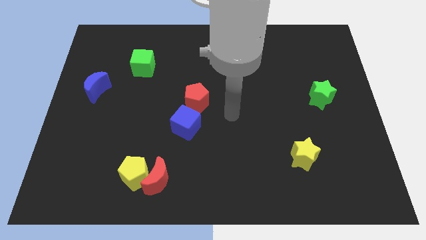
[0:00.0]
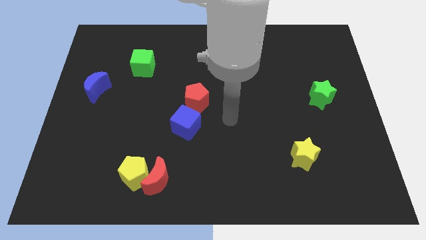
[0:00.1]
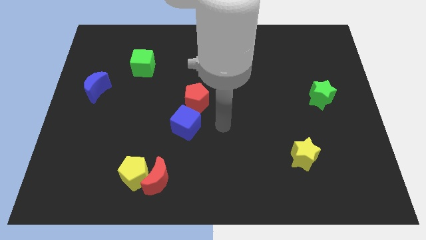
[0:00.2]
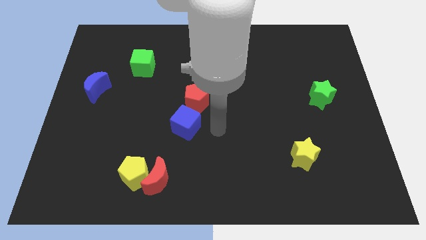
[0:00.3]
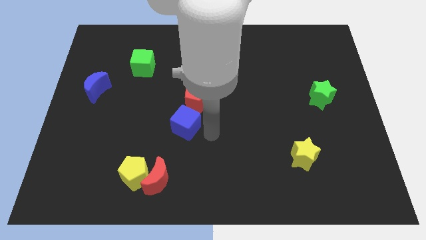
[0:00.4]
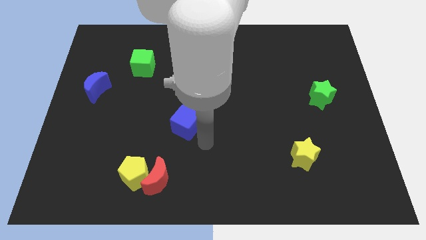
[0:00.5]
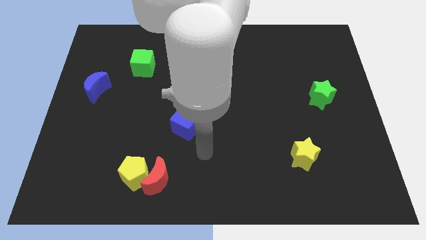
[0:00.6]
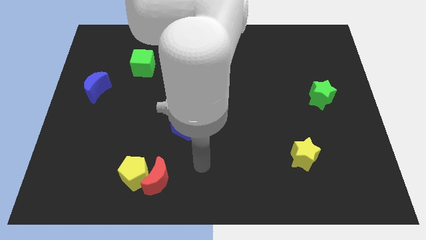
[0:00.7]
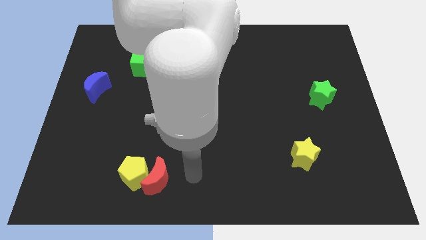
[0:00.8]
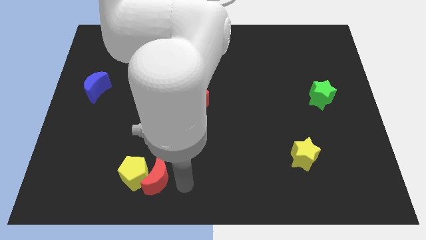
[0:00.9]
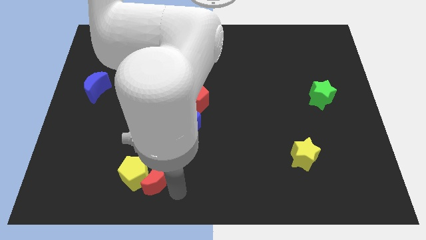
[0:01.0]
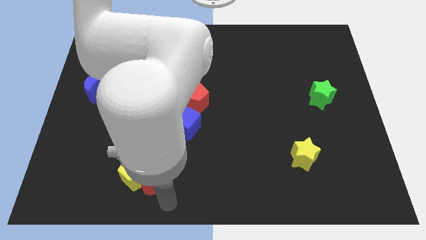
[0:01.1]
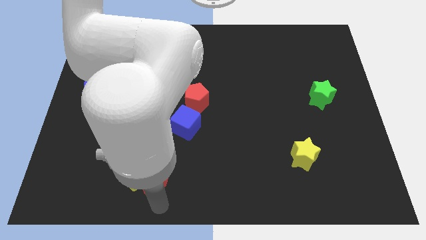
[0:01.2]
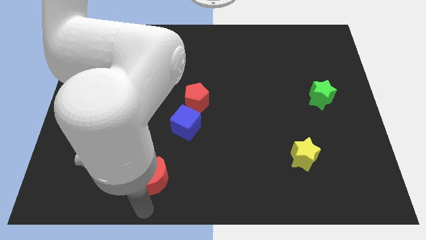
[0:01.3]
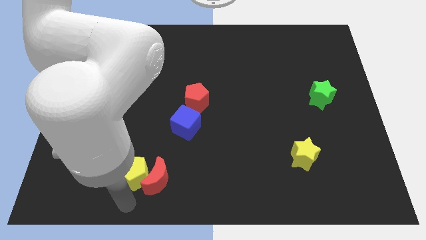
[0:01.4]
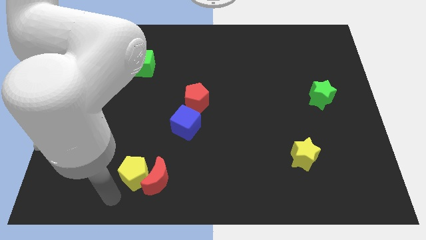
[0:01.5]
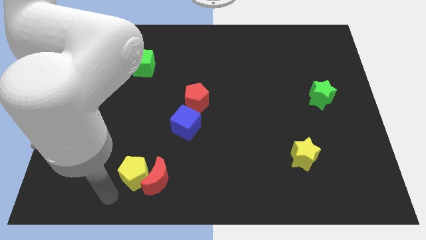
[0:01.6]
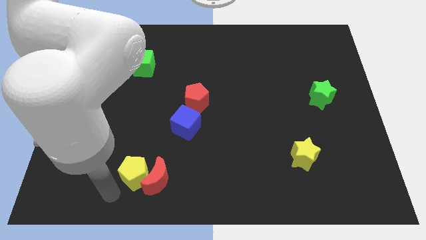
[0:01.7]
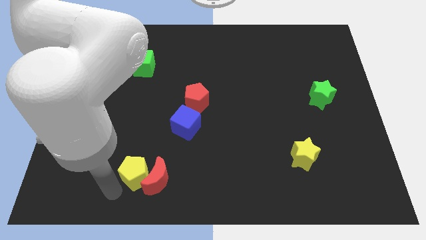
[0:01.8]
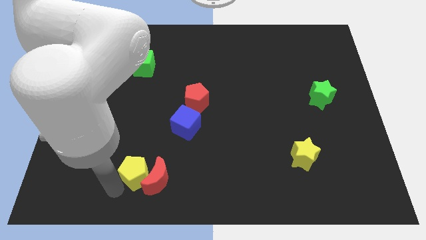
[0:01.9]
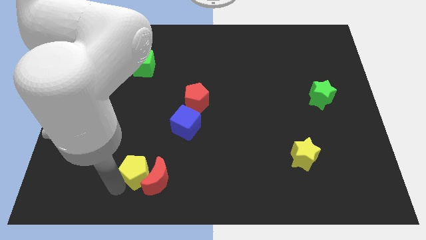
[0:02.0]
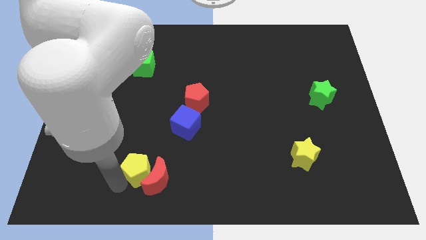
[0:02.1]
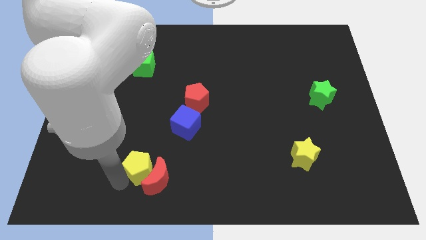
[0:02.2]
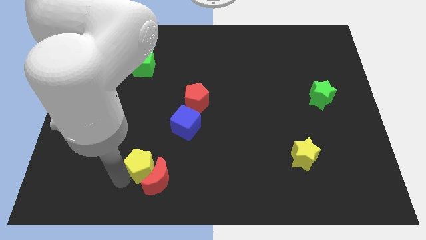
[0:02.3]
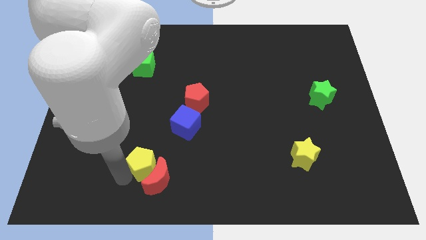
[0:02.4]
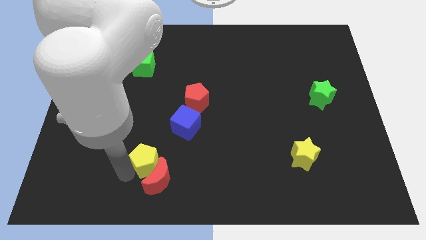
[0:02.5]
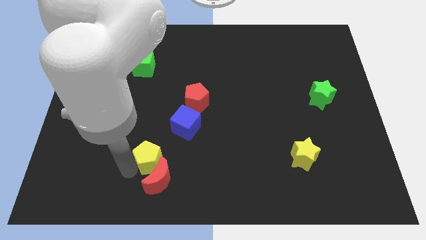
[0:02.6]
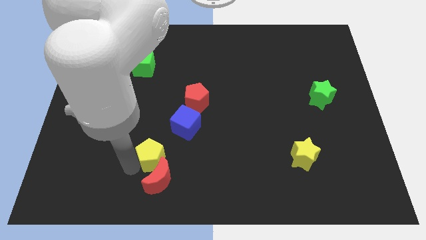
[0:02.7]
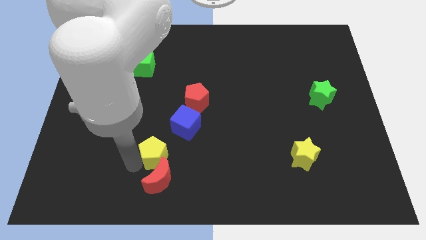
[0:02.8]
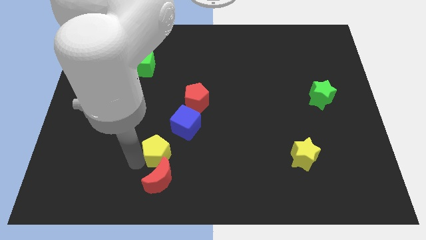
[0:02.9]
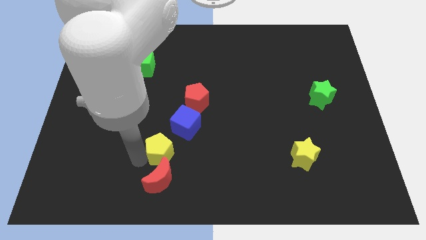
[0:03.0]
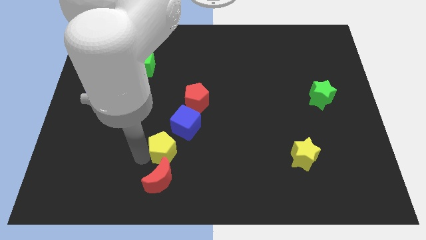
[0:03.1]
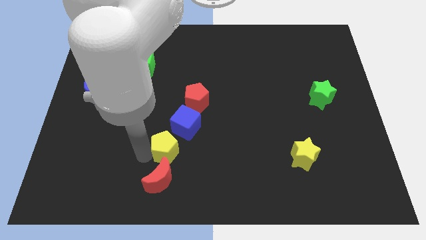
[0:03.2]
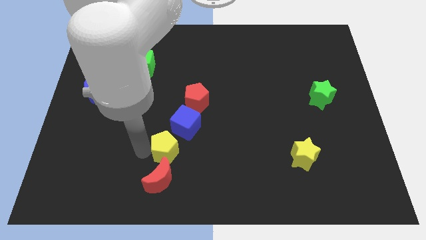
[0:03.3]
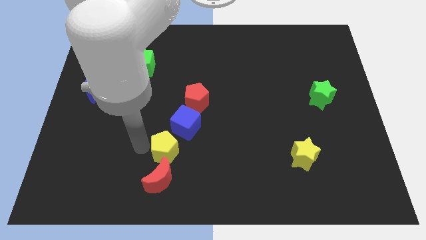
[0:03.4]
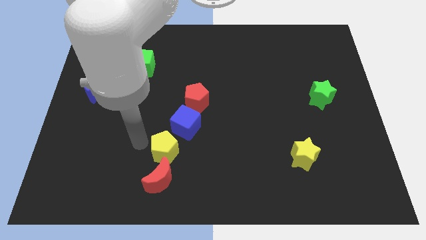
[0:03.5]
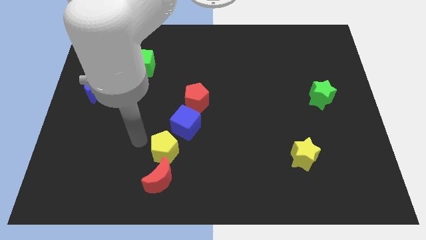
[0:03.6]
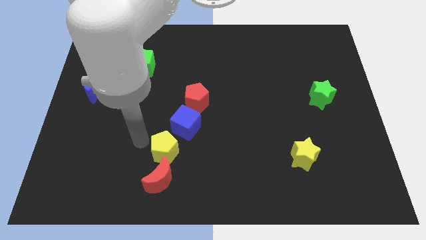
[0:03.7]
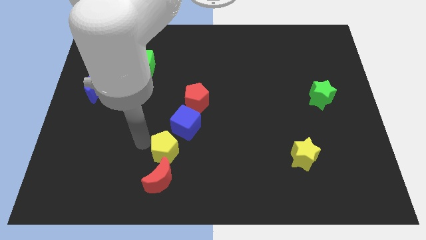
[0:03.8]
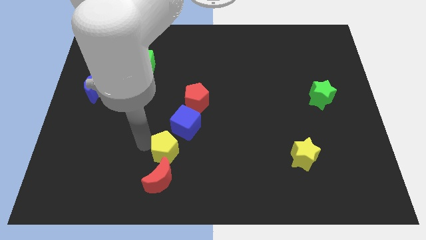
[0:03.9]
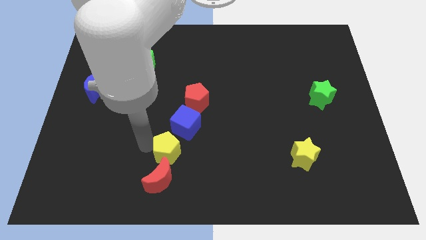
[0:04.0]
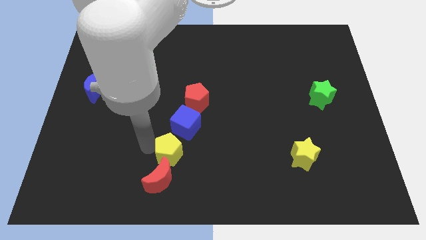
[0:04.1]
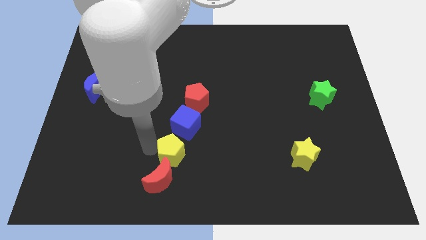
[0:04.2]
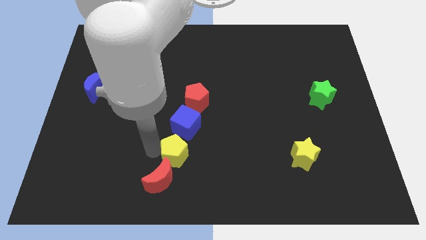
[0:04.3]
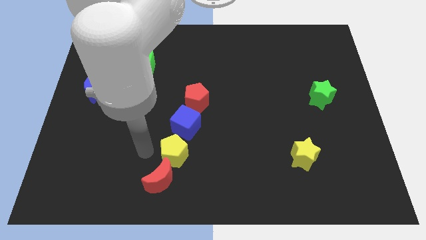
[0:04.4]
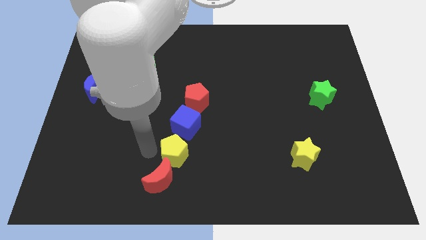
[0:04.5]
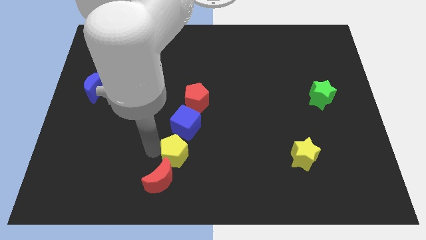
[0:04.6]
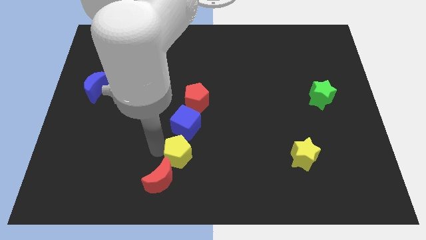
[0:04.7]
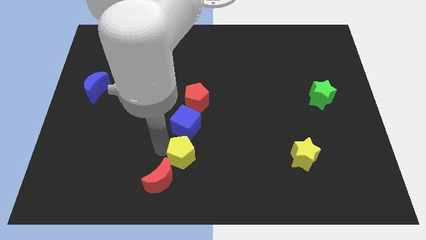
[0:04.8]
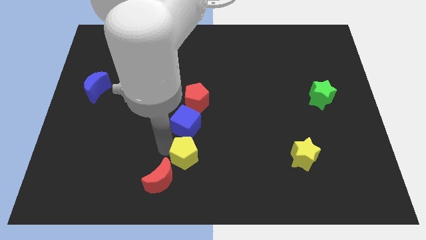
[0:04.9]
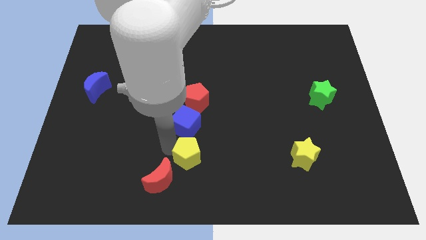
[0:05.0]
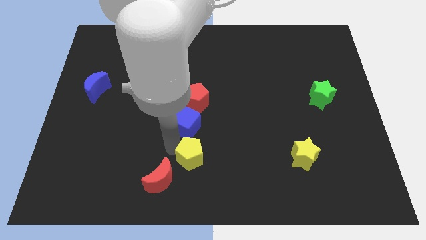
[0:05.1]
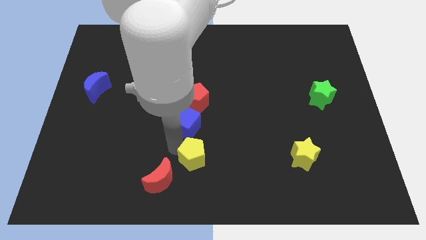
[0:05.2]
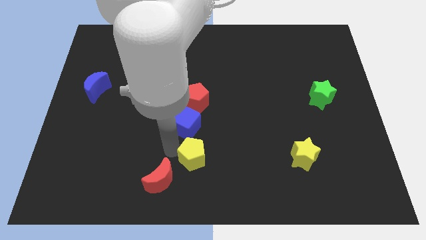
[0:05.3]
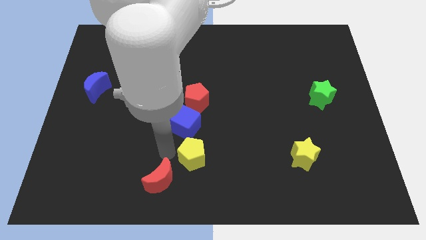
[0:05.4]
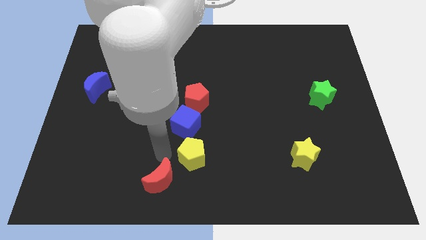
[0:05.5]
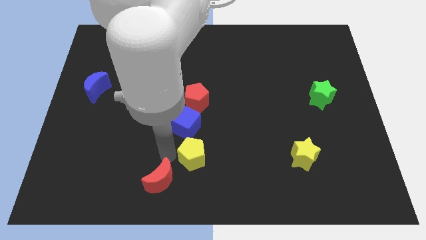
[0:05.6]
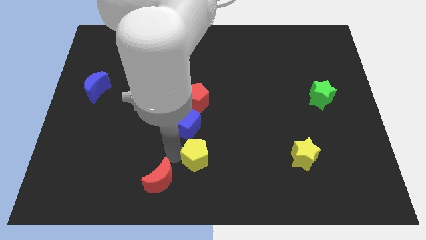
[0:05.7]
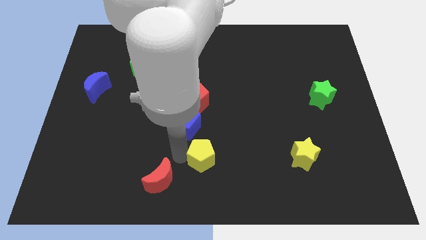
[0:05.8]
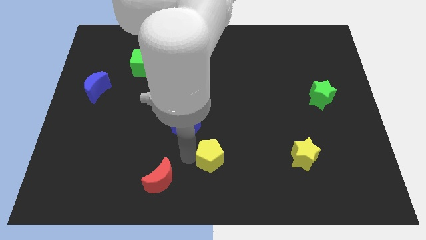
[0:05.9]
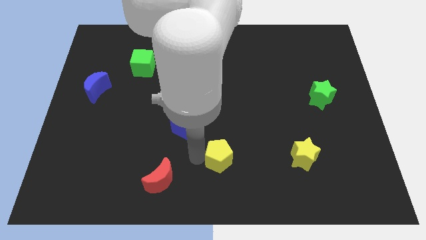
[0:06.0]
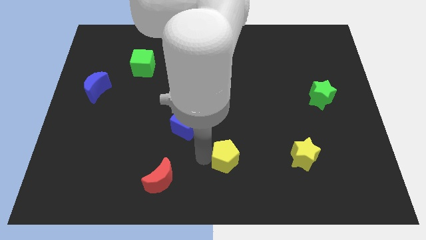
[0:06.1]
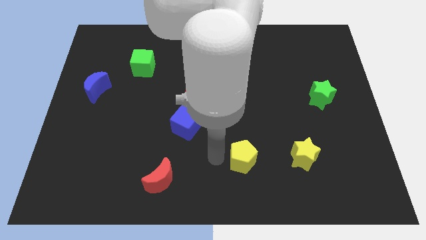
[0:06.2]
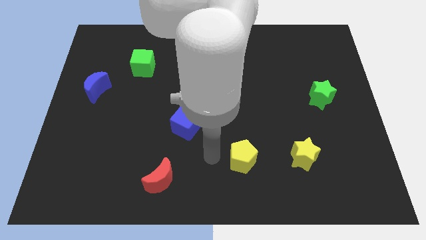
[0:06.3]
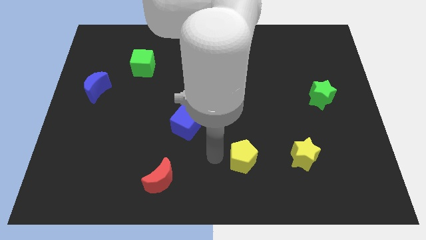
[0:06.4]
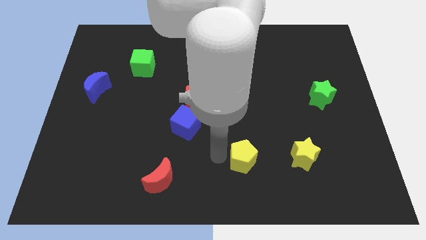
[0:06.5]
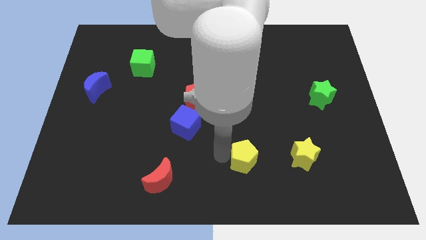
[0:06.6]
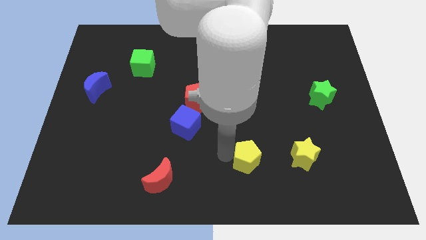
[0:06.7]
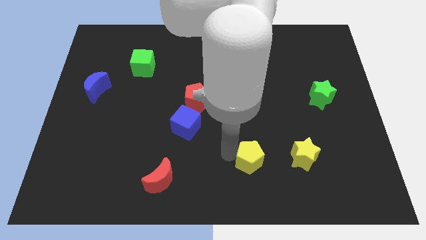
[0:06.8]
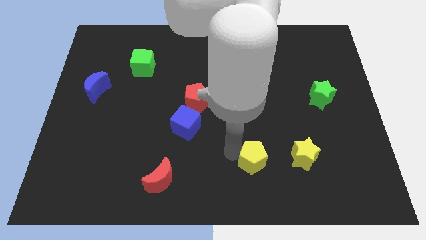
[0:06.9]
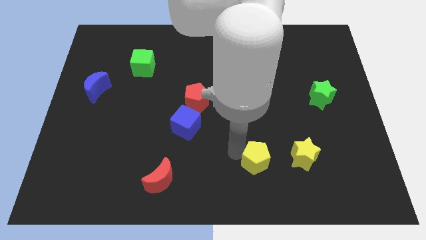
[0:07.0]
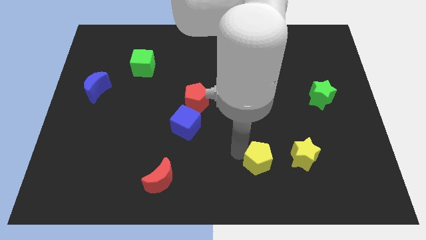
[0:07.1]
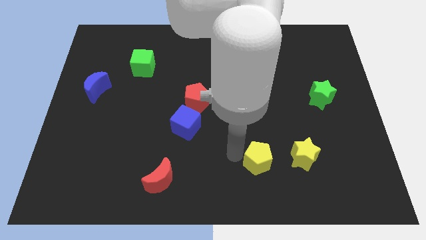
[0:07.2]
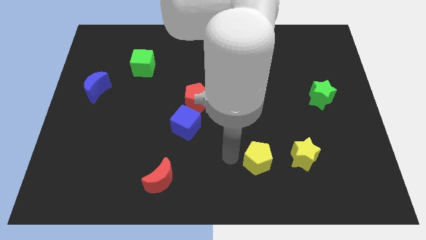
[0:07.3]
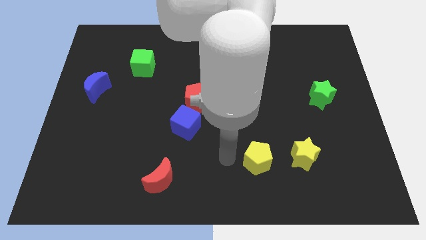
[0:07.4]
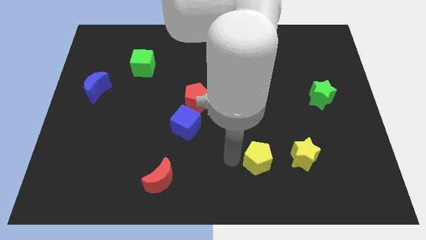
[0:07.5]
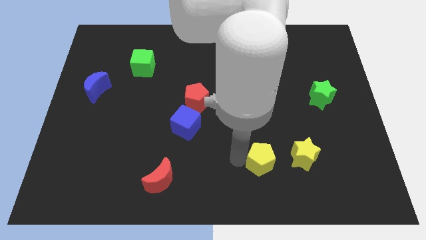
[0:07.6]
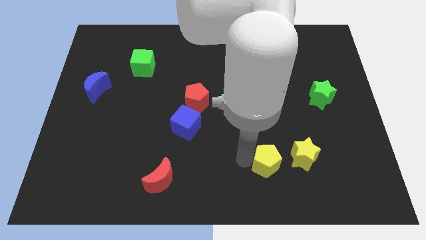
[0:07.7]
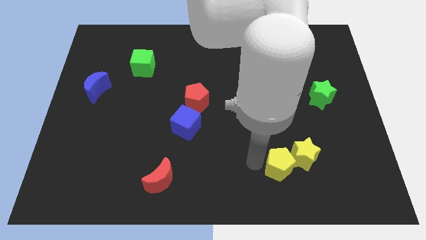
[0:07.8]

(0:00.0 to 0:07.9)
move the yellow pentagon close to the yellow star
